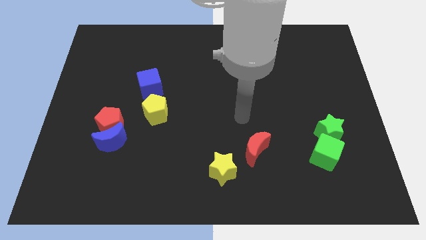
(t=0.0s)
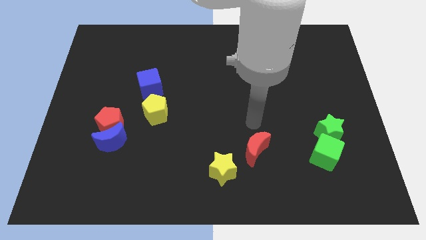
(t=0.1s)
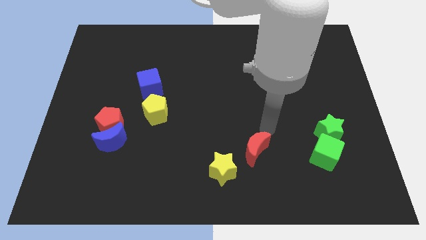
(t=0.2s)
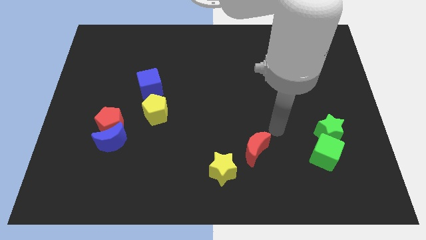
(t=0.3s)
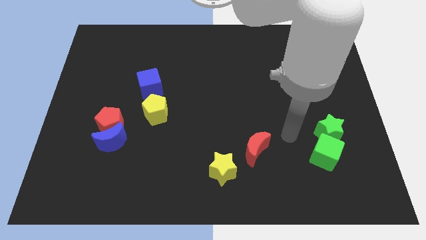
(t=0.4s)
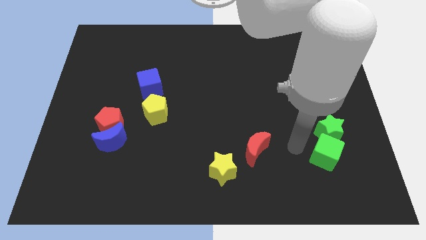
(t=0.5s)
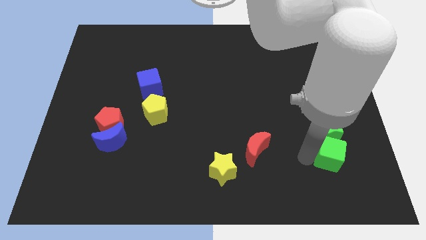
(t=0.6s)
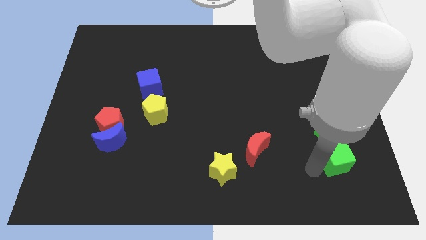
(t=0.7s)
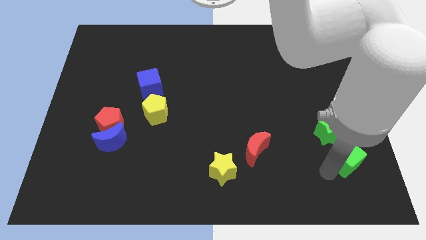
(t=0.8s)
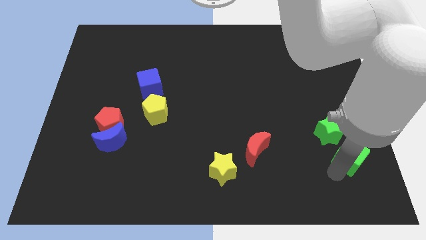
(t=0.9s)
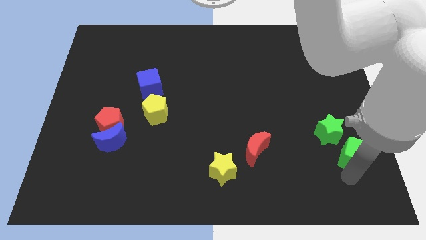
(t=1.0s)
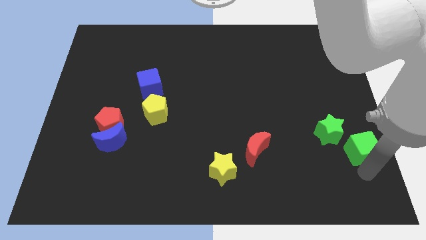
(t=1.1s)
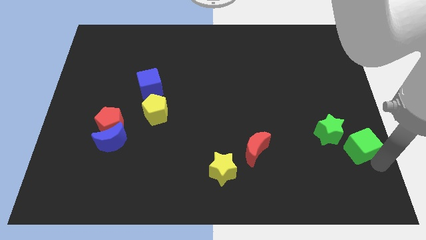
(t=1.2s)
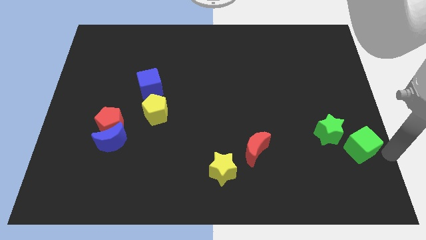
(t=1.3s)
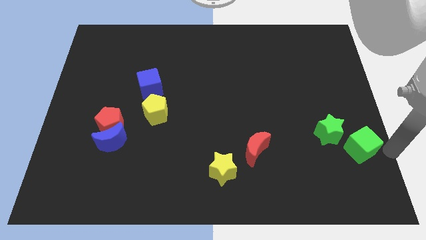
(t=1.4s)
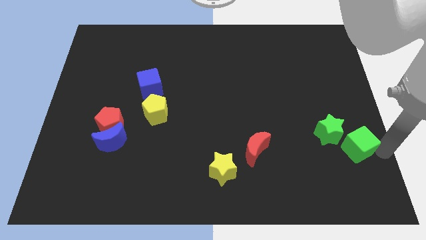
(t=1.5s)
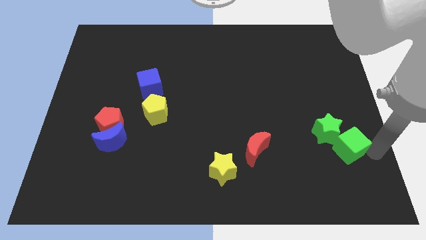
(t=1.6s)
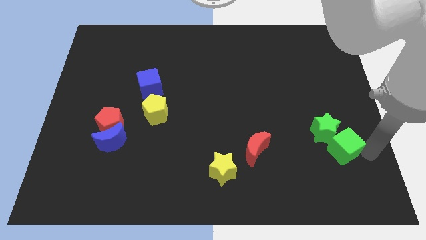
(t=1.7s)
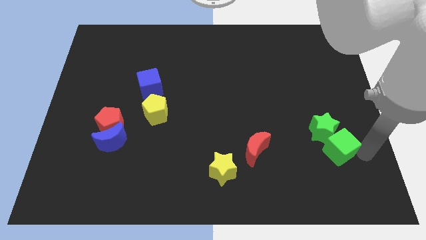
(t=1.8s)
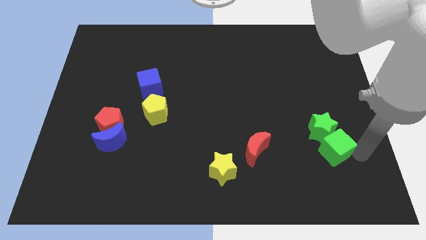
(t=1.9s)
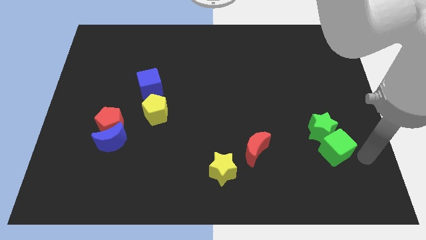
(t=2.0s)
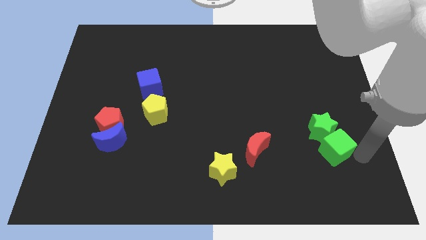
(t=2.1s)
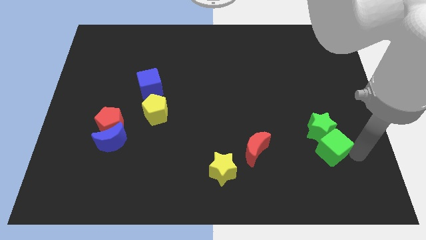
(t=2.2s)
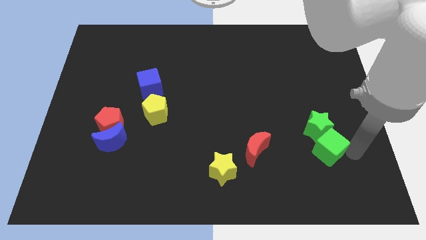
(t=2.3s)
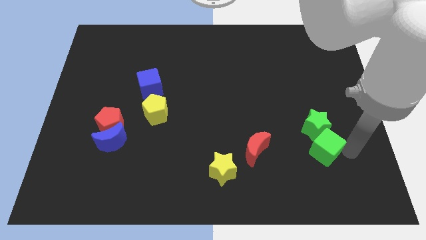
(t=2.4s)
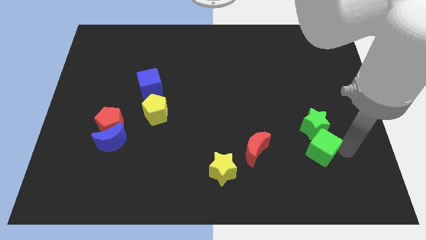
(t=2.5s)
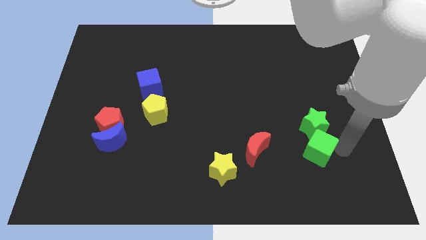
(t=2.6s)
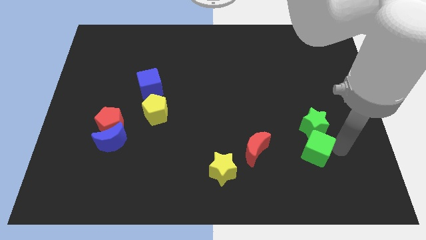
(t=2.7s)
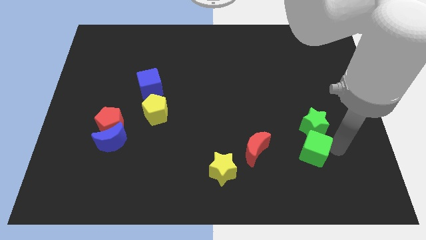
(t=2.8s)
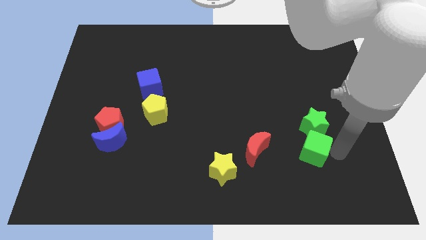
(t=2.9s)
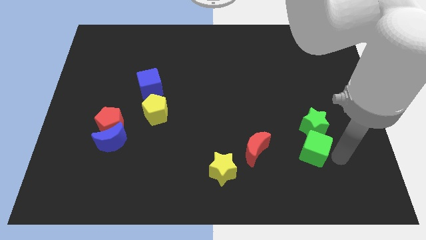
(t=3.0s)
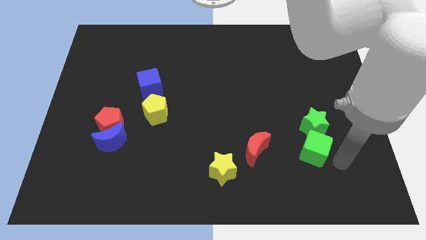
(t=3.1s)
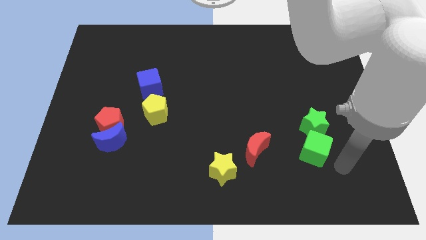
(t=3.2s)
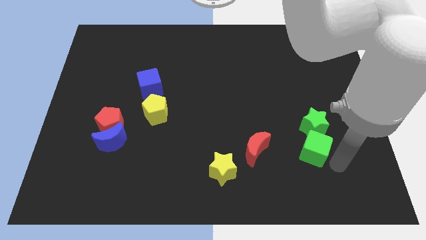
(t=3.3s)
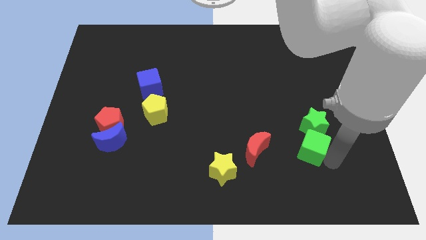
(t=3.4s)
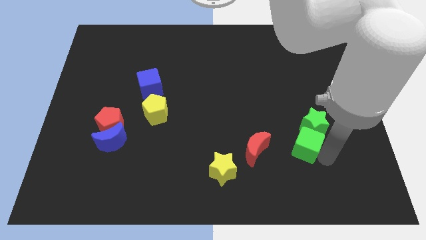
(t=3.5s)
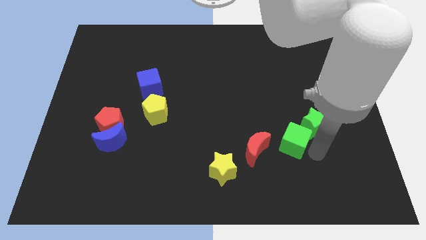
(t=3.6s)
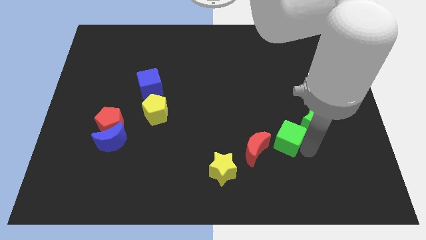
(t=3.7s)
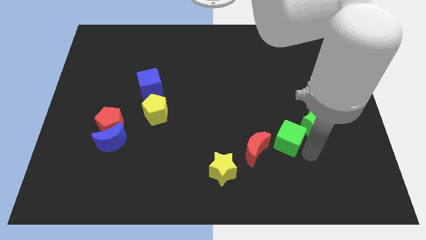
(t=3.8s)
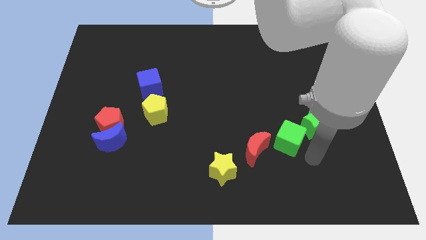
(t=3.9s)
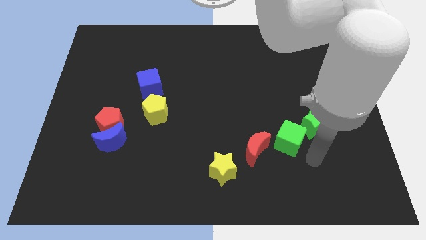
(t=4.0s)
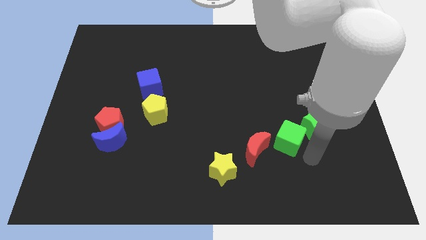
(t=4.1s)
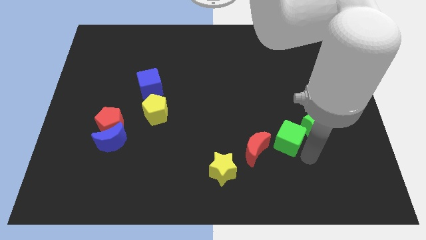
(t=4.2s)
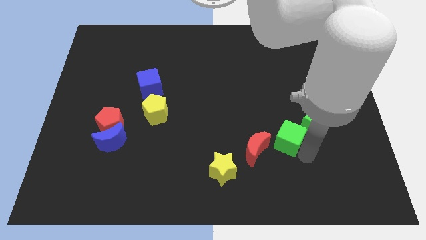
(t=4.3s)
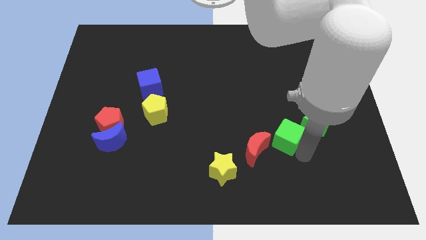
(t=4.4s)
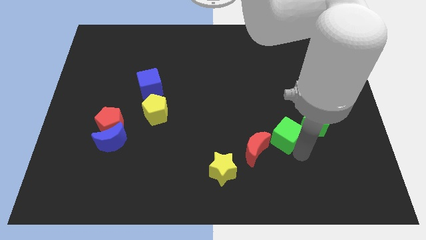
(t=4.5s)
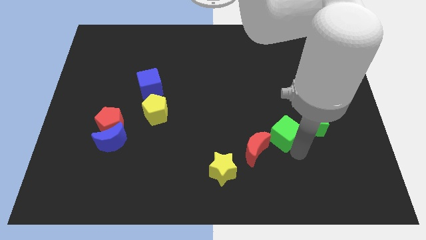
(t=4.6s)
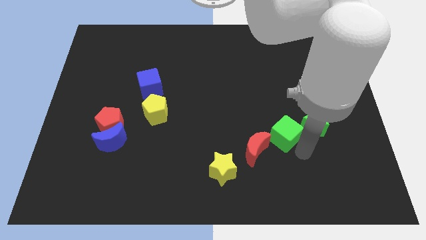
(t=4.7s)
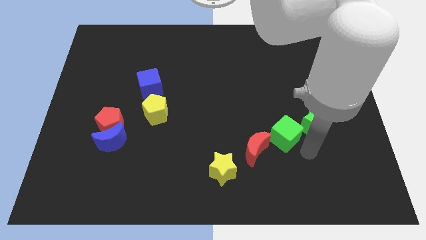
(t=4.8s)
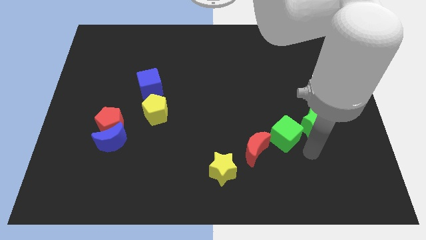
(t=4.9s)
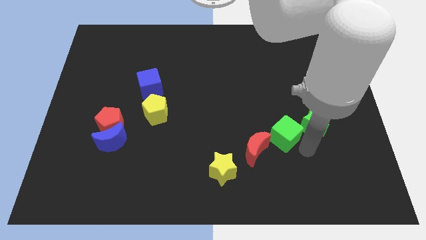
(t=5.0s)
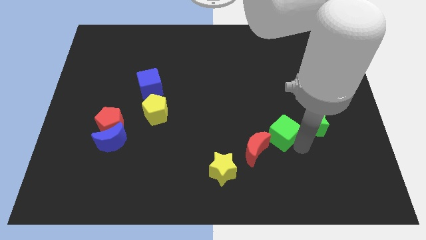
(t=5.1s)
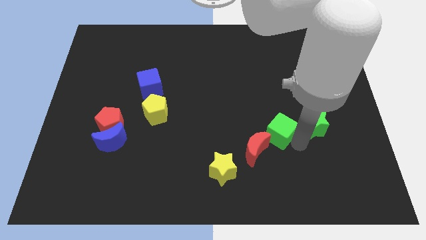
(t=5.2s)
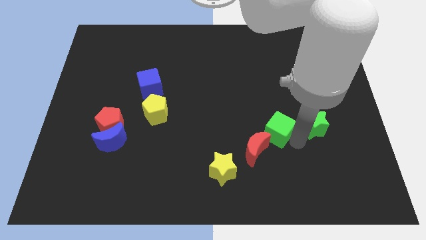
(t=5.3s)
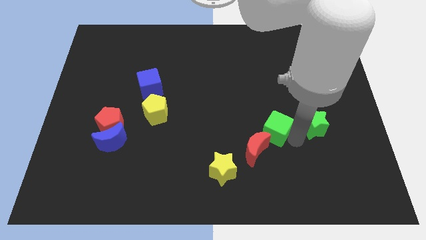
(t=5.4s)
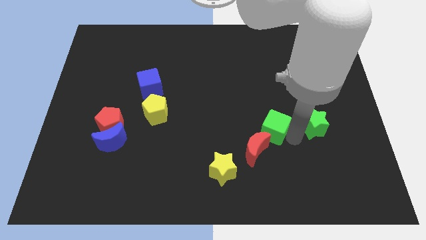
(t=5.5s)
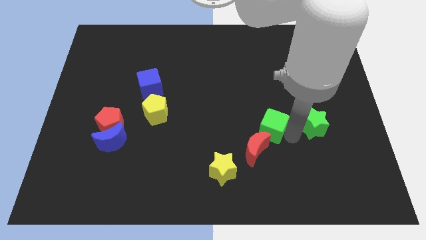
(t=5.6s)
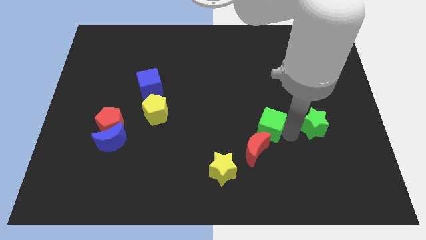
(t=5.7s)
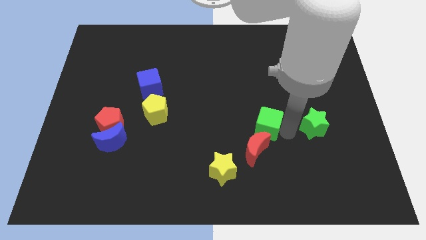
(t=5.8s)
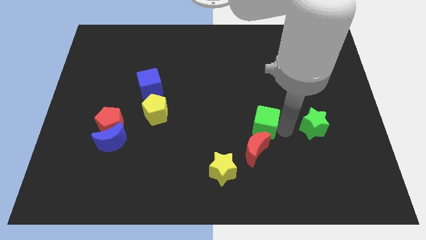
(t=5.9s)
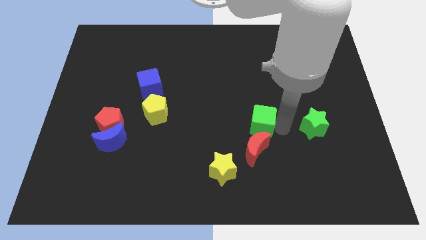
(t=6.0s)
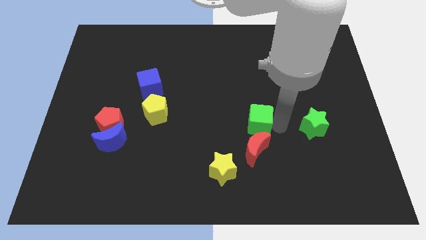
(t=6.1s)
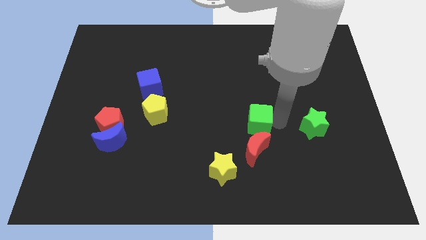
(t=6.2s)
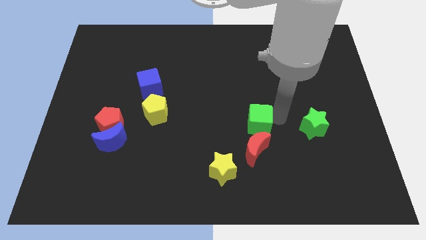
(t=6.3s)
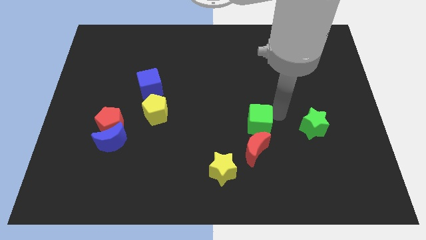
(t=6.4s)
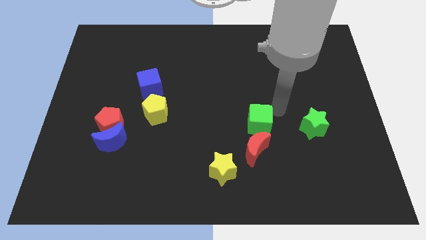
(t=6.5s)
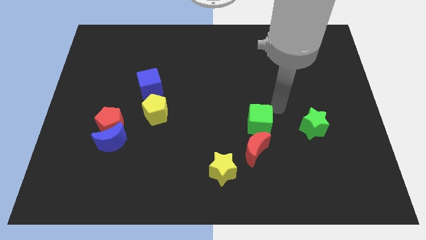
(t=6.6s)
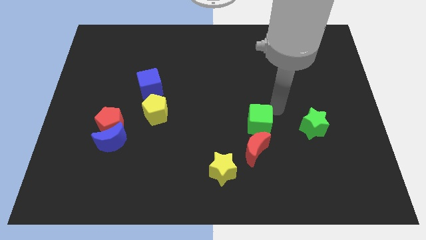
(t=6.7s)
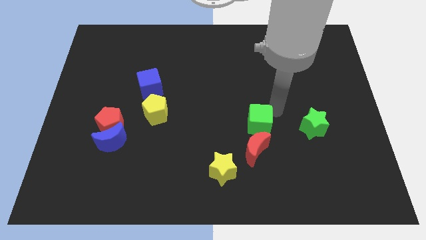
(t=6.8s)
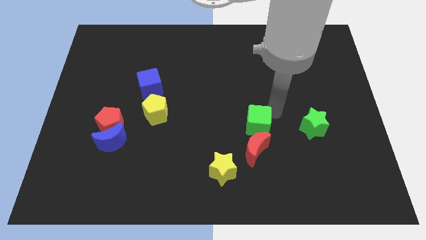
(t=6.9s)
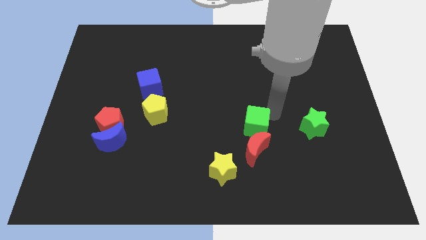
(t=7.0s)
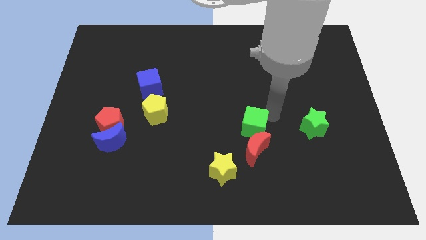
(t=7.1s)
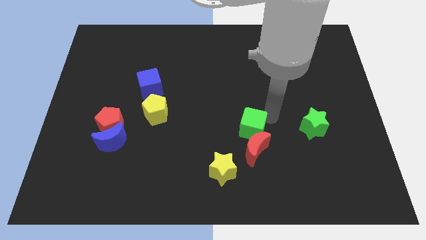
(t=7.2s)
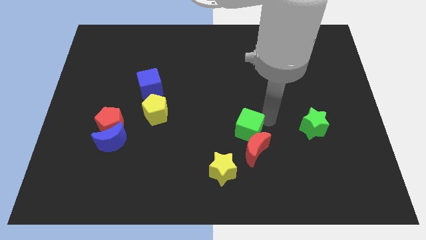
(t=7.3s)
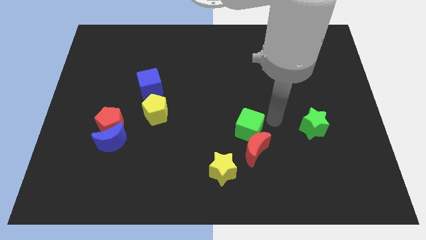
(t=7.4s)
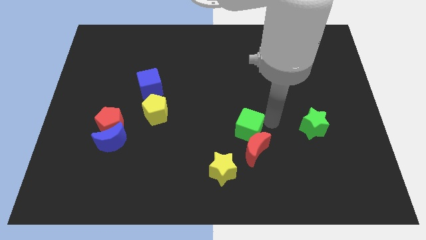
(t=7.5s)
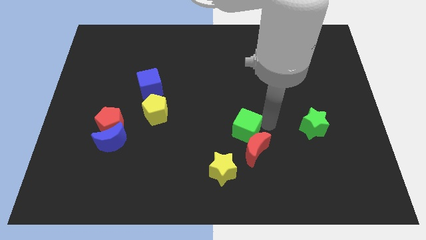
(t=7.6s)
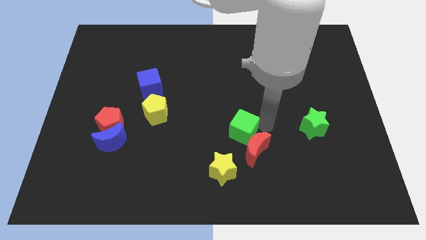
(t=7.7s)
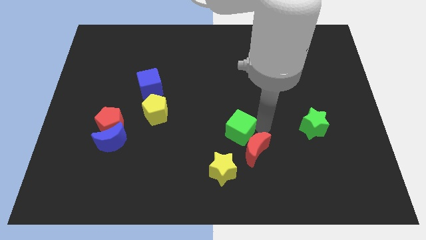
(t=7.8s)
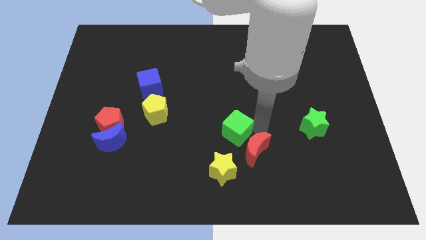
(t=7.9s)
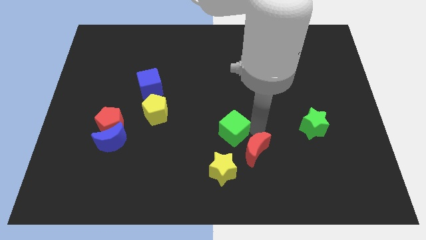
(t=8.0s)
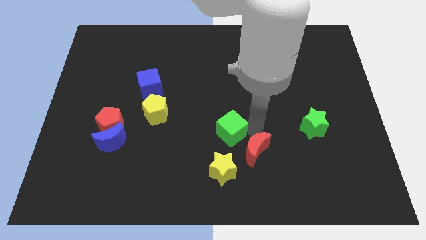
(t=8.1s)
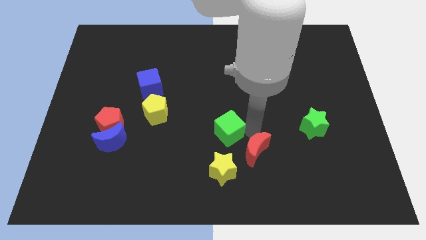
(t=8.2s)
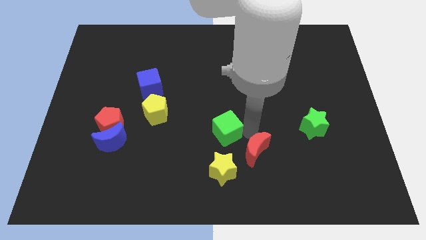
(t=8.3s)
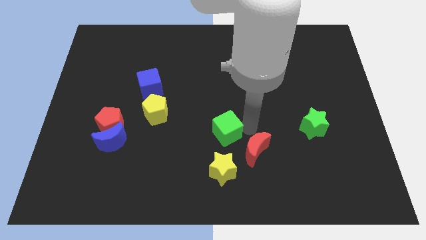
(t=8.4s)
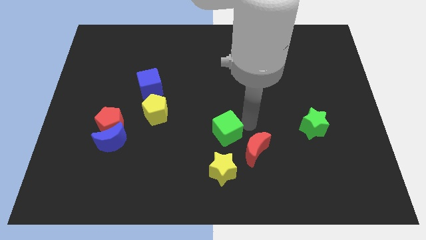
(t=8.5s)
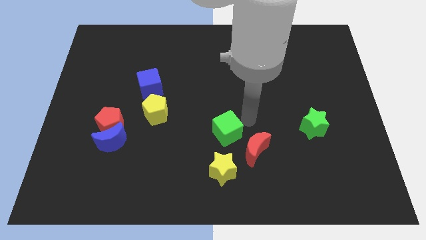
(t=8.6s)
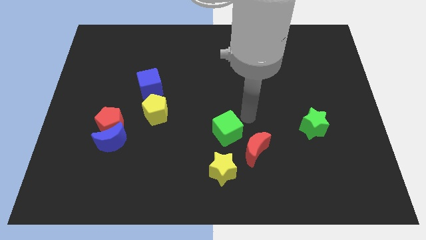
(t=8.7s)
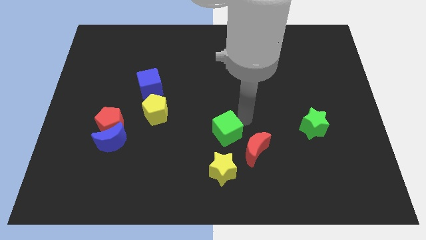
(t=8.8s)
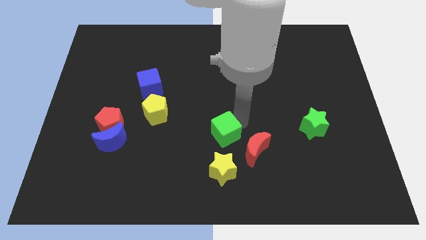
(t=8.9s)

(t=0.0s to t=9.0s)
push the green cube to the left
